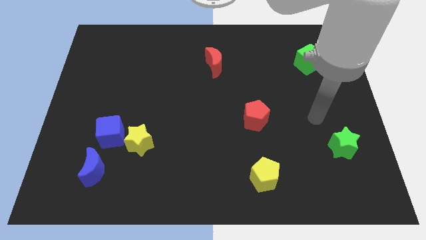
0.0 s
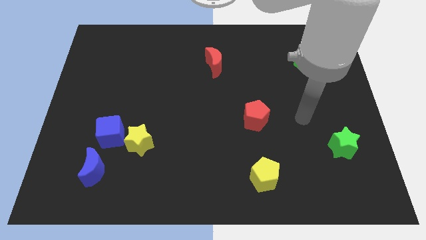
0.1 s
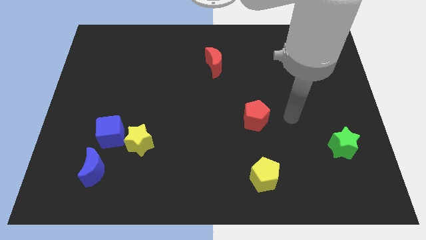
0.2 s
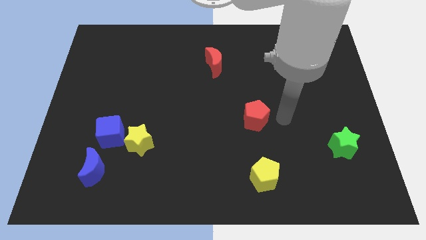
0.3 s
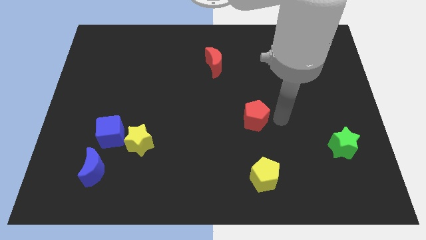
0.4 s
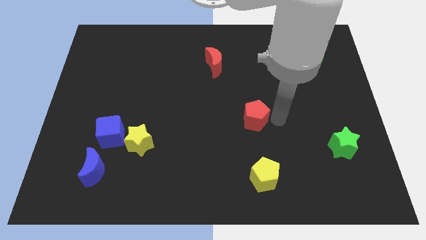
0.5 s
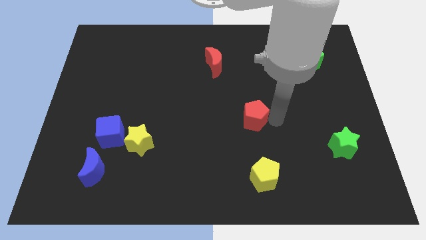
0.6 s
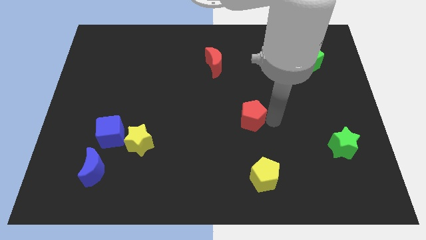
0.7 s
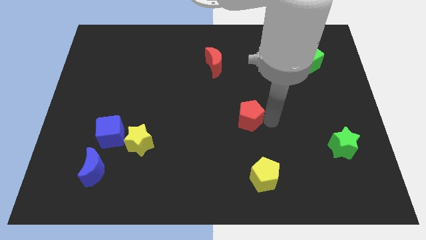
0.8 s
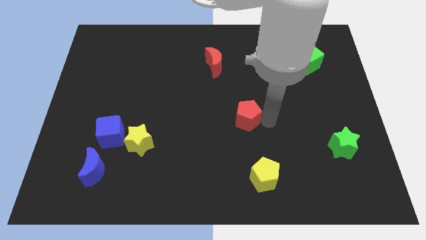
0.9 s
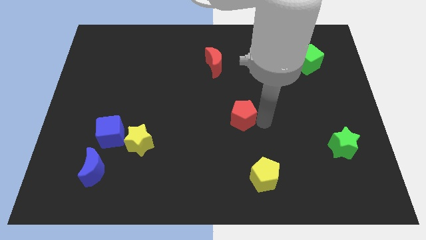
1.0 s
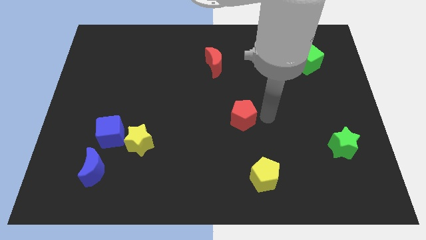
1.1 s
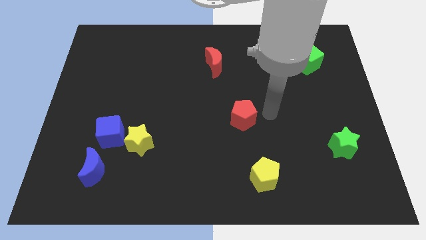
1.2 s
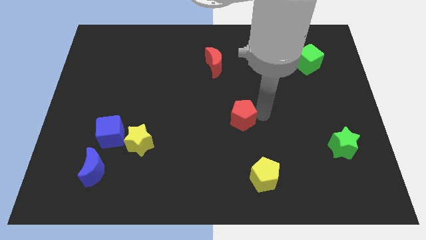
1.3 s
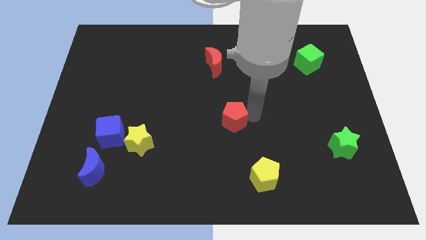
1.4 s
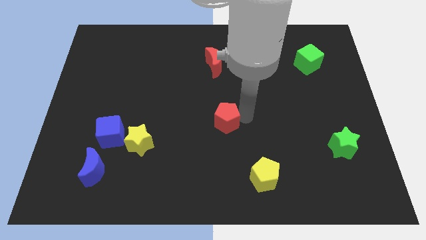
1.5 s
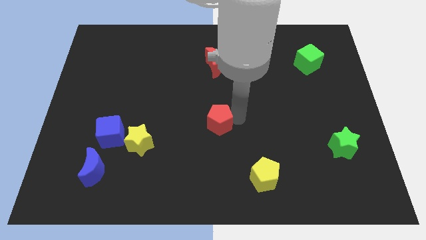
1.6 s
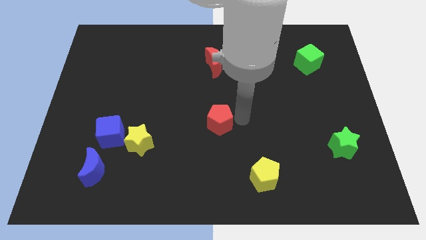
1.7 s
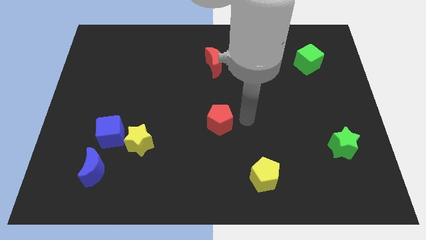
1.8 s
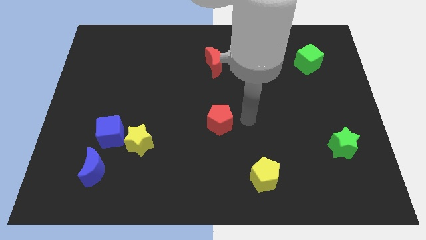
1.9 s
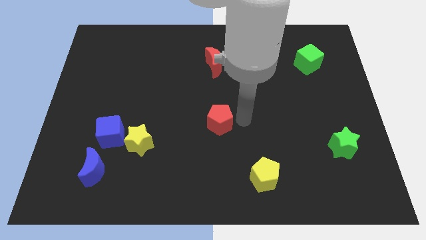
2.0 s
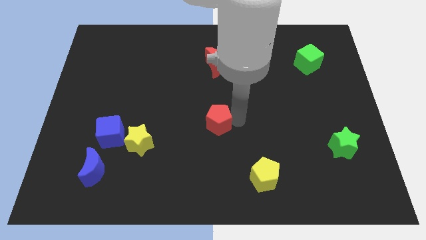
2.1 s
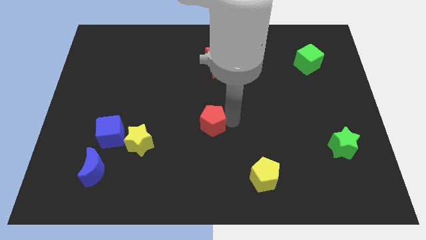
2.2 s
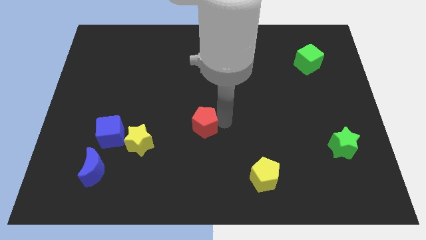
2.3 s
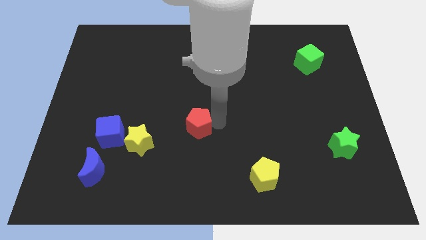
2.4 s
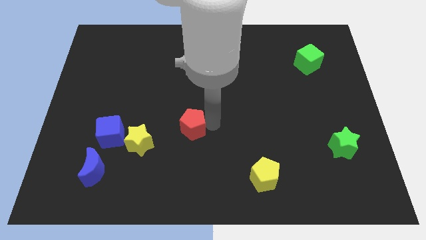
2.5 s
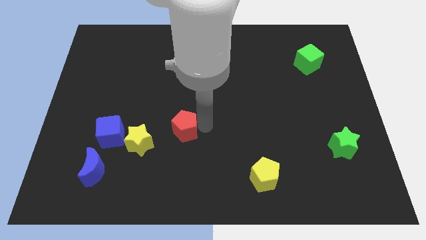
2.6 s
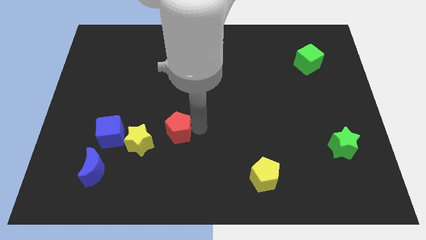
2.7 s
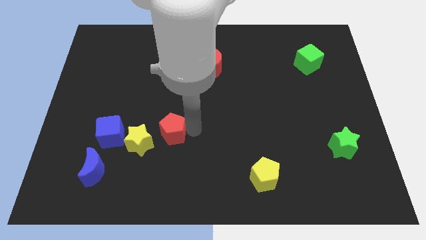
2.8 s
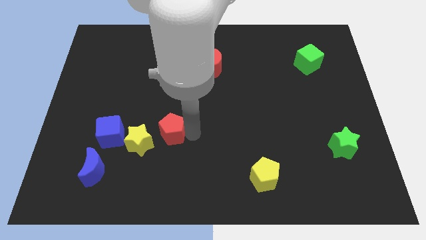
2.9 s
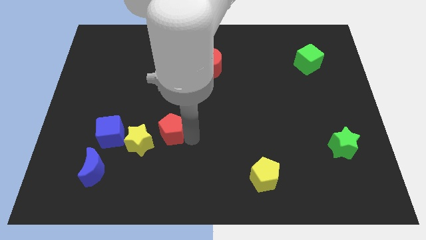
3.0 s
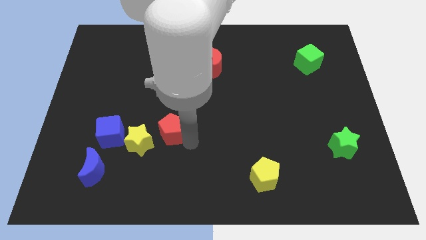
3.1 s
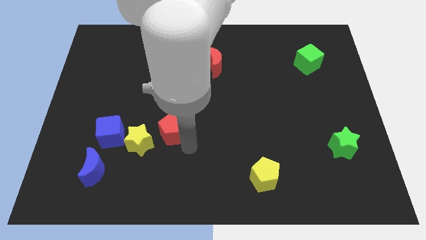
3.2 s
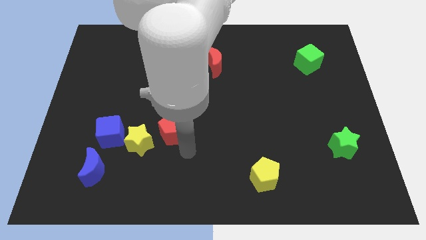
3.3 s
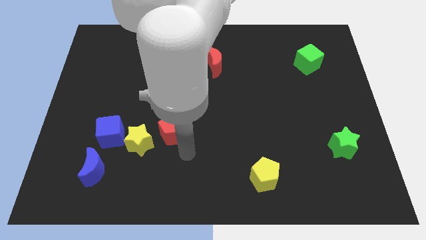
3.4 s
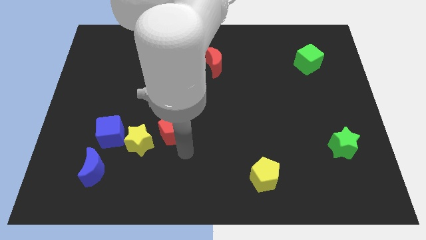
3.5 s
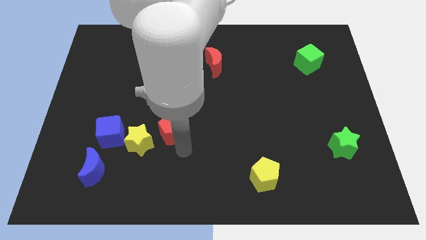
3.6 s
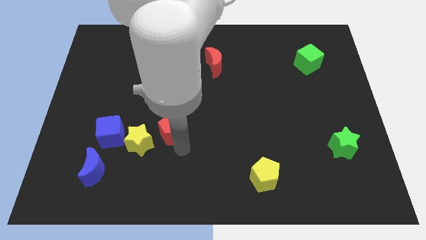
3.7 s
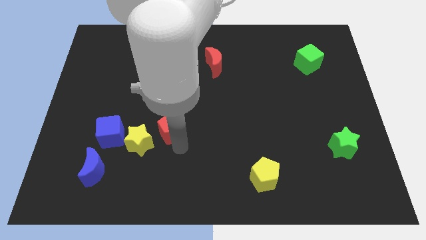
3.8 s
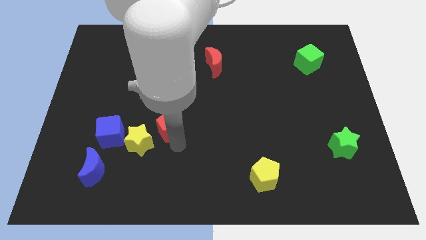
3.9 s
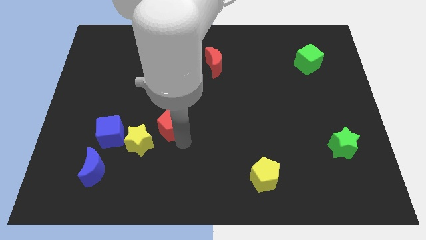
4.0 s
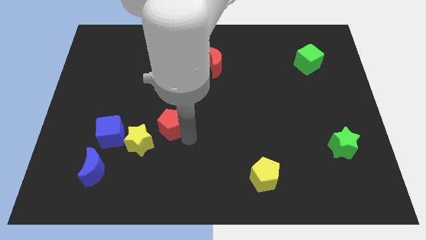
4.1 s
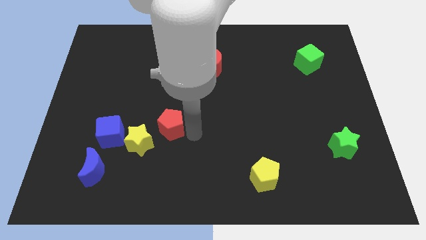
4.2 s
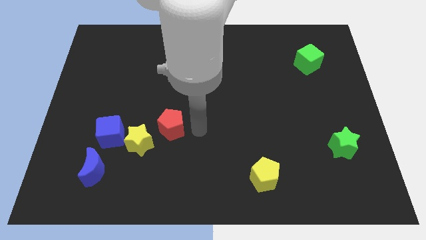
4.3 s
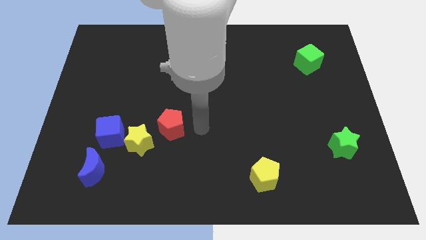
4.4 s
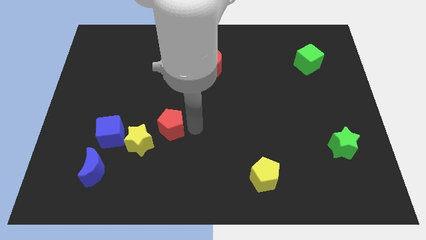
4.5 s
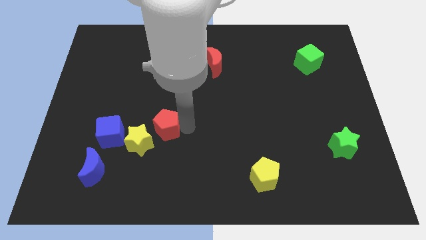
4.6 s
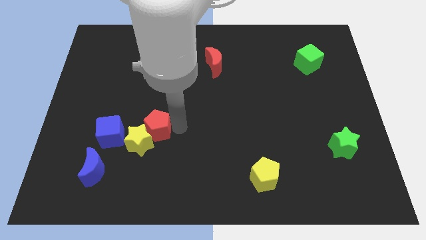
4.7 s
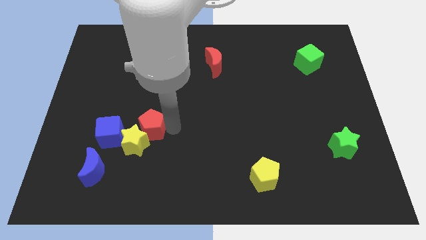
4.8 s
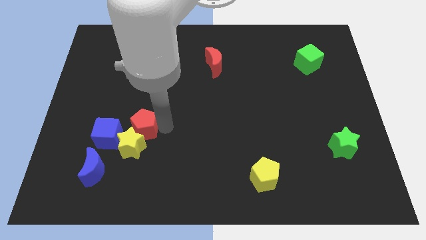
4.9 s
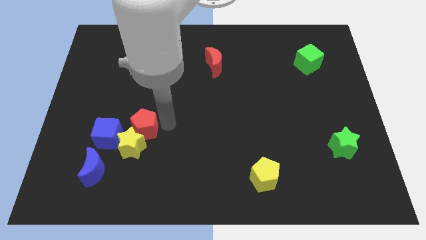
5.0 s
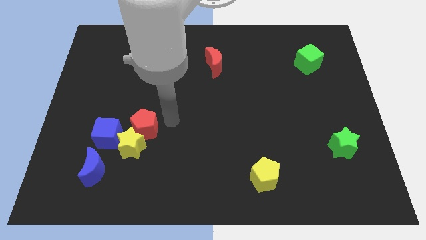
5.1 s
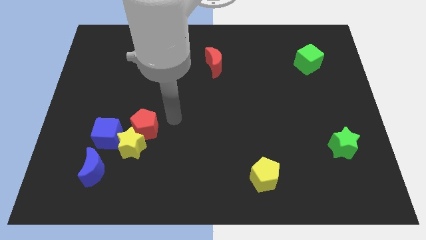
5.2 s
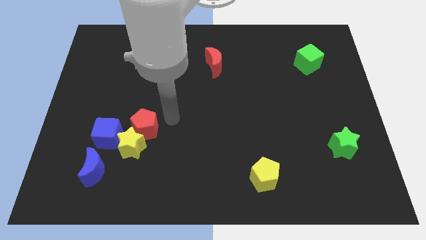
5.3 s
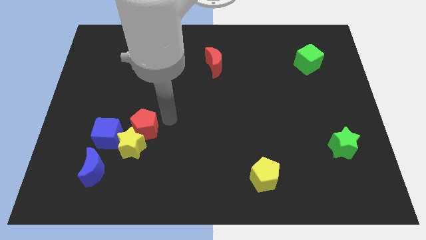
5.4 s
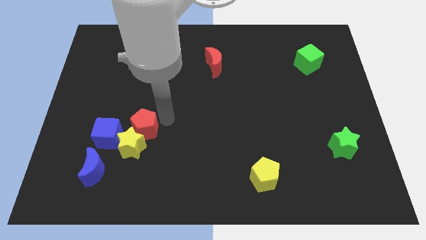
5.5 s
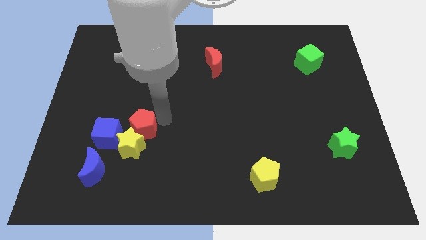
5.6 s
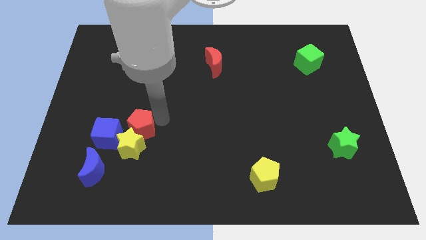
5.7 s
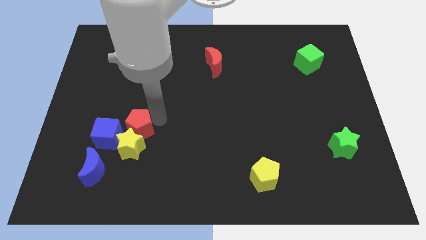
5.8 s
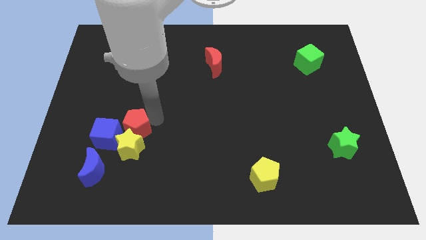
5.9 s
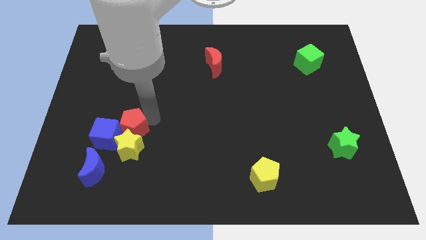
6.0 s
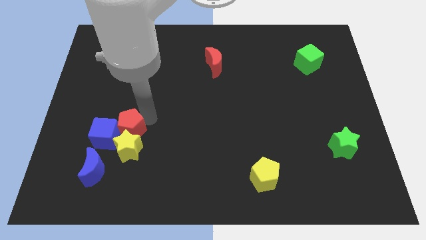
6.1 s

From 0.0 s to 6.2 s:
slide the red pentagon to the blue cube
